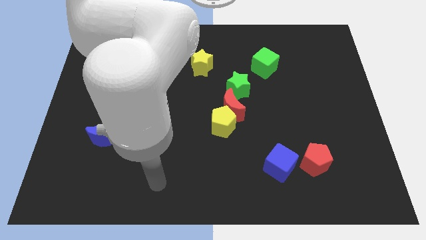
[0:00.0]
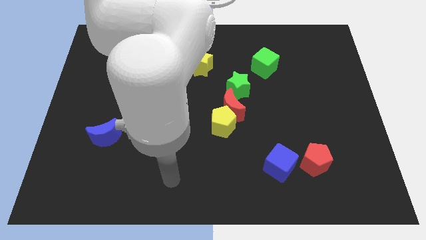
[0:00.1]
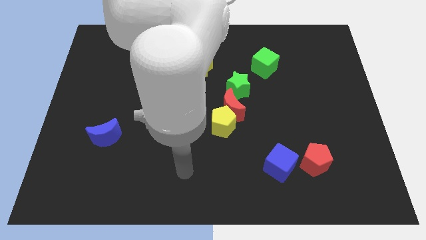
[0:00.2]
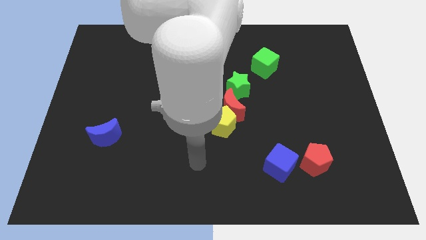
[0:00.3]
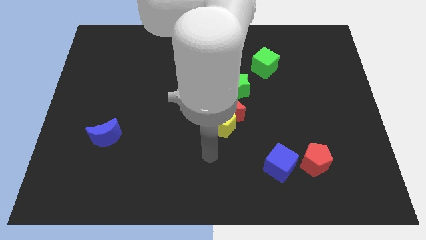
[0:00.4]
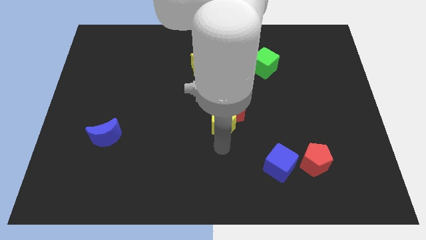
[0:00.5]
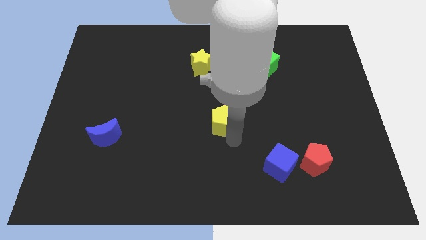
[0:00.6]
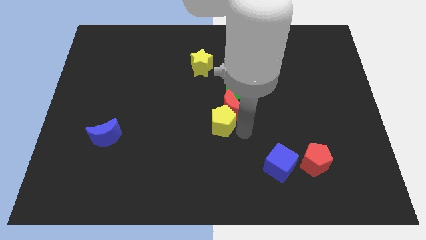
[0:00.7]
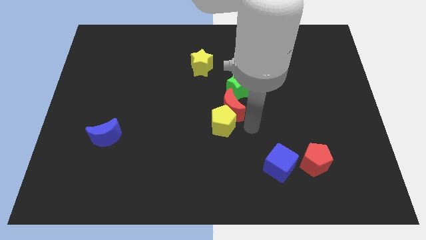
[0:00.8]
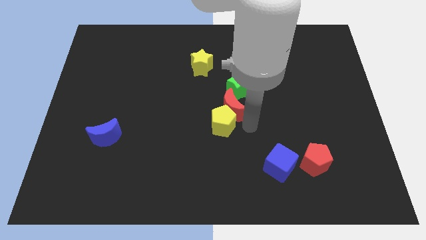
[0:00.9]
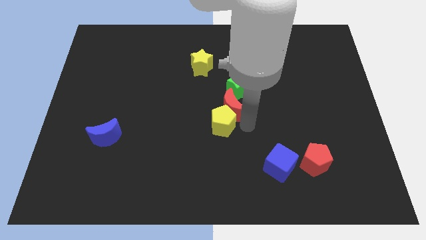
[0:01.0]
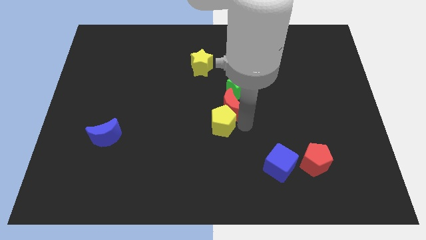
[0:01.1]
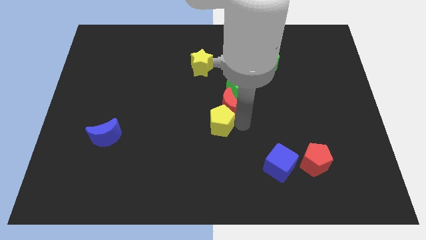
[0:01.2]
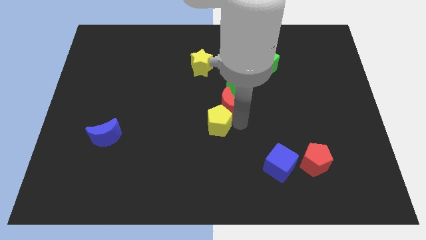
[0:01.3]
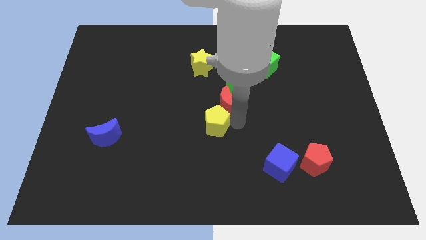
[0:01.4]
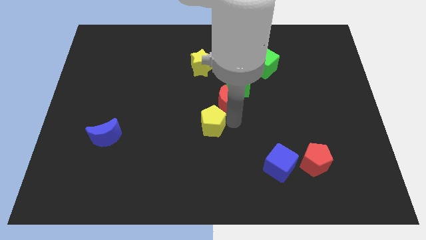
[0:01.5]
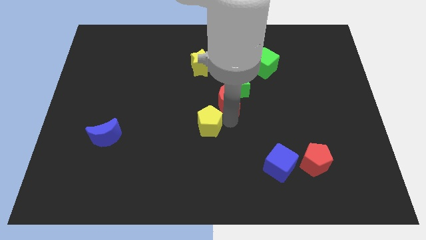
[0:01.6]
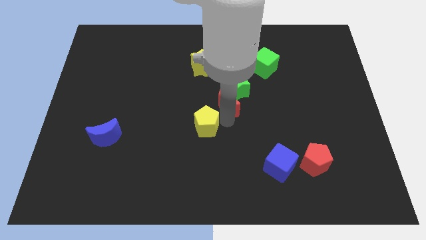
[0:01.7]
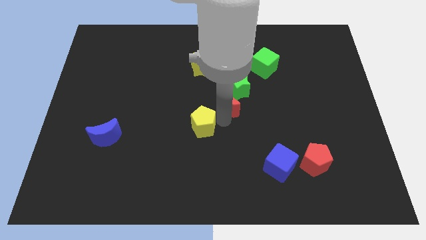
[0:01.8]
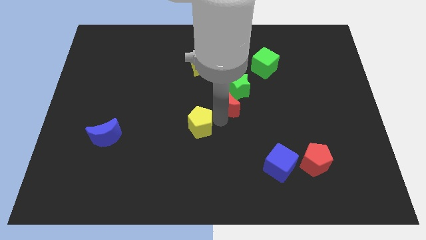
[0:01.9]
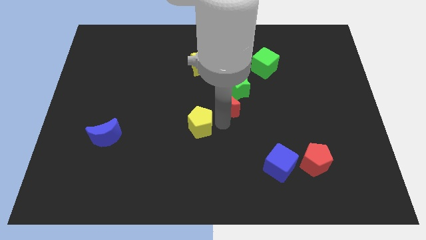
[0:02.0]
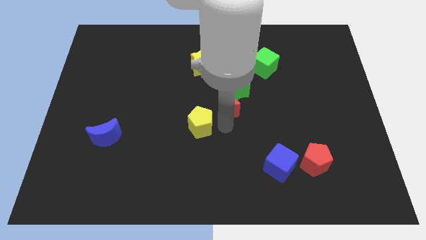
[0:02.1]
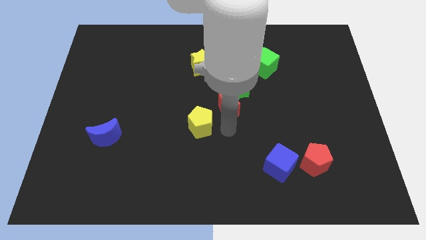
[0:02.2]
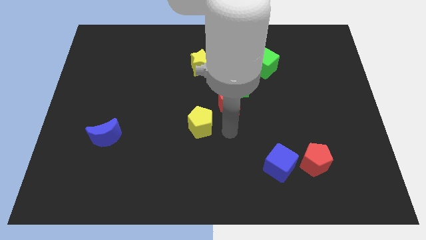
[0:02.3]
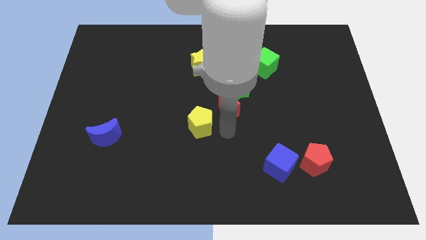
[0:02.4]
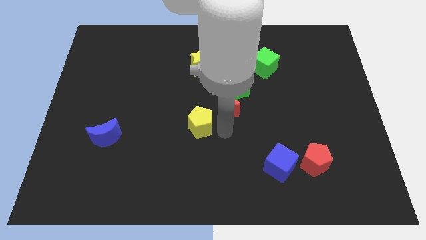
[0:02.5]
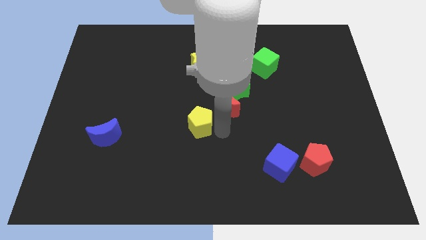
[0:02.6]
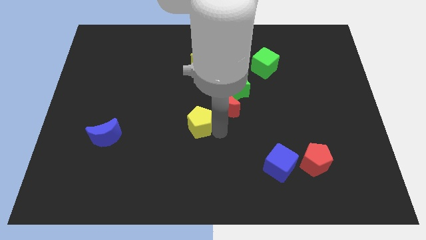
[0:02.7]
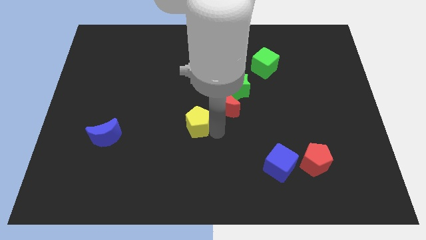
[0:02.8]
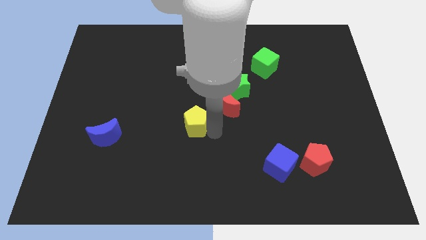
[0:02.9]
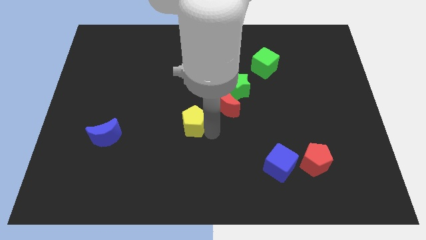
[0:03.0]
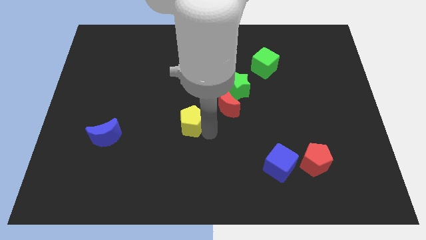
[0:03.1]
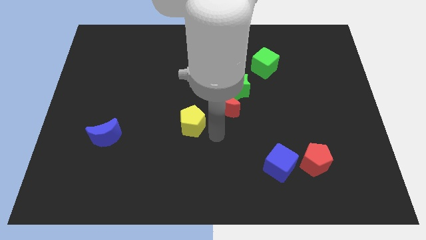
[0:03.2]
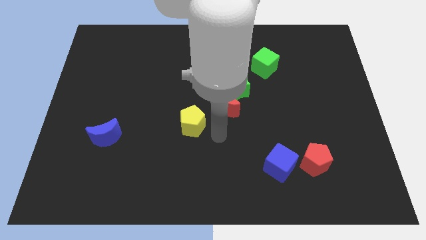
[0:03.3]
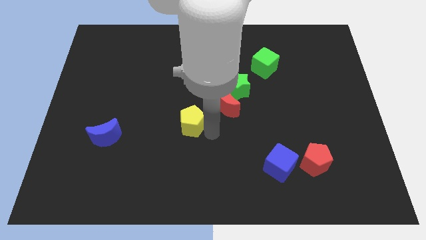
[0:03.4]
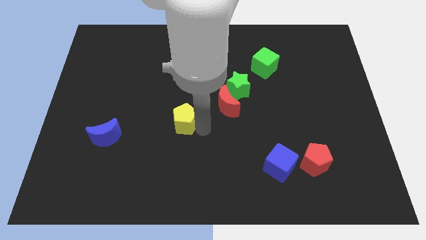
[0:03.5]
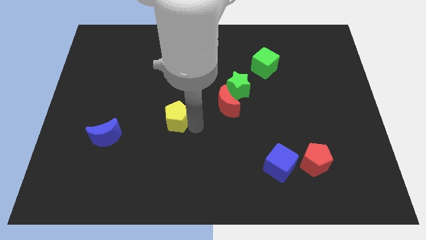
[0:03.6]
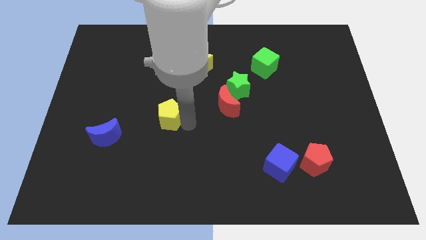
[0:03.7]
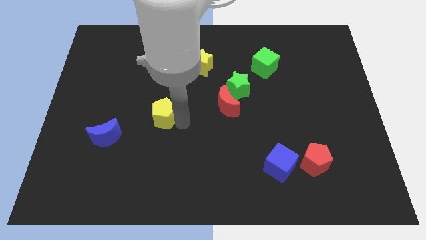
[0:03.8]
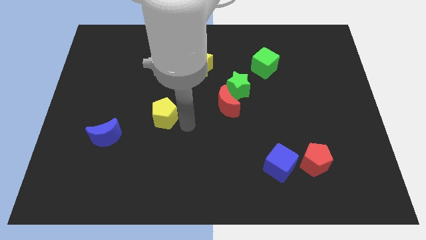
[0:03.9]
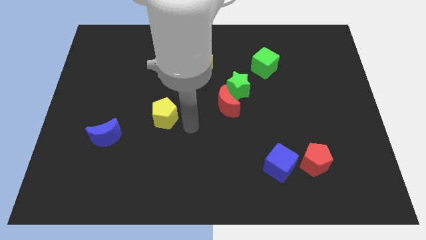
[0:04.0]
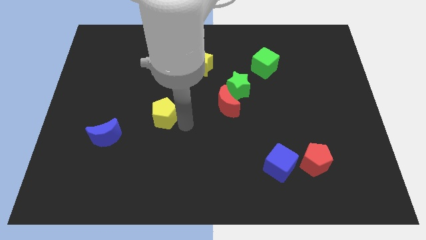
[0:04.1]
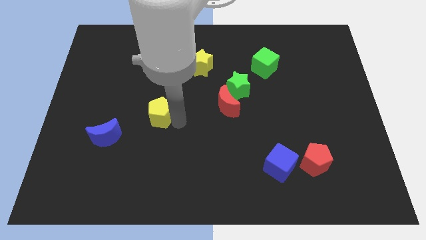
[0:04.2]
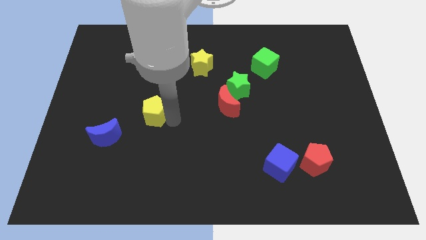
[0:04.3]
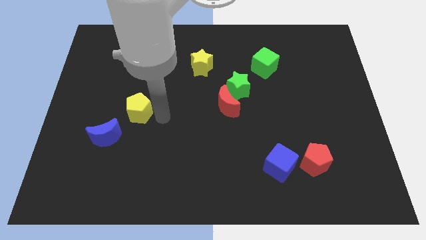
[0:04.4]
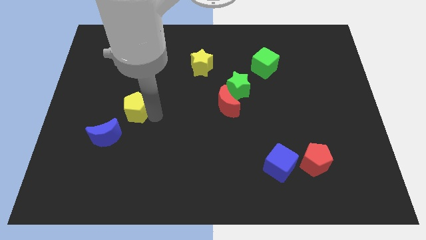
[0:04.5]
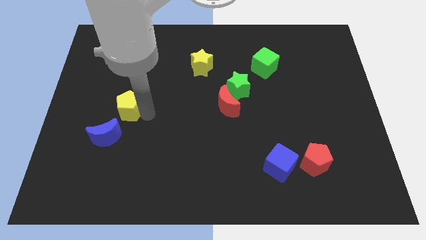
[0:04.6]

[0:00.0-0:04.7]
put the yellow pentagon above the blue moon

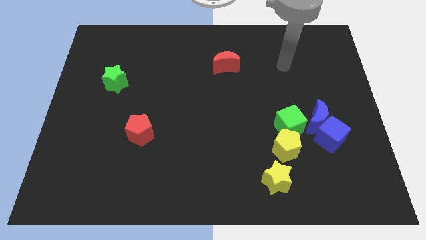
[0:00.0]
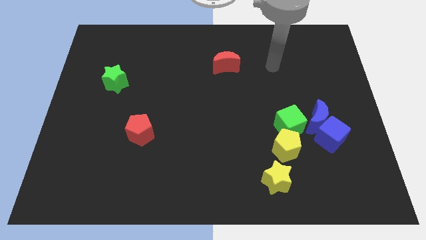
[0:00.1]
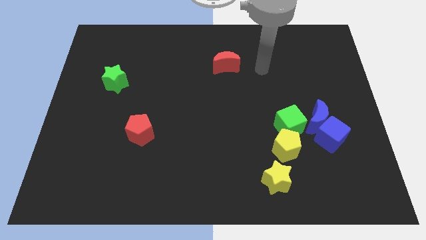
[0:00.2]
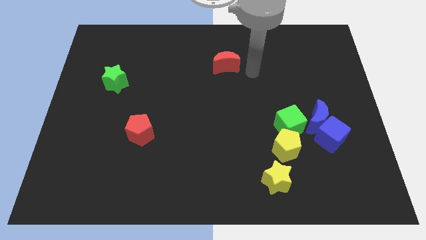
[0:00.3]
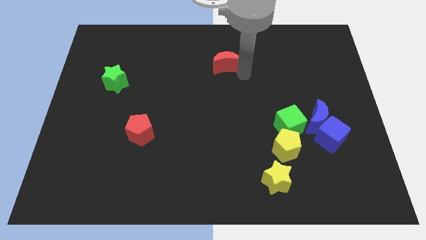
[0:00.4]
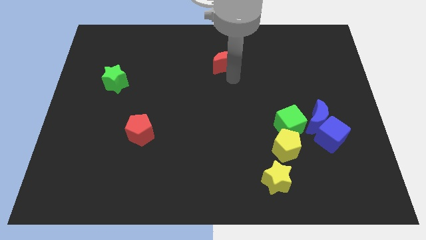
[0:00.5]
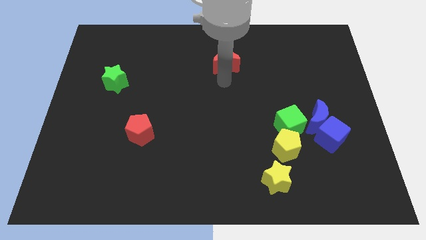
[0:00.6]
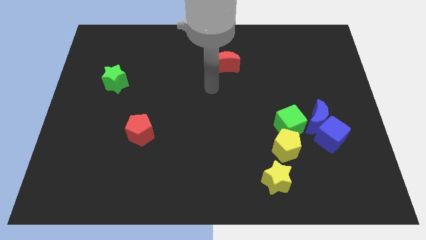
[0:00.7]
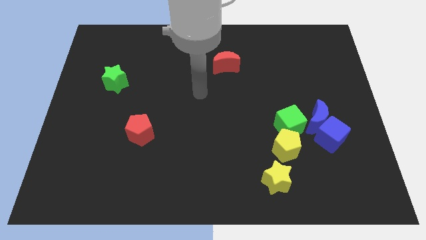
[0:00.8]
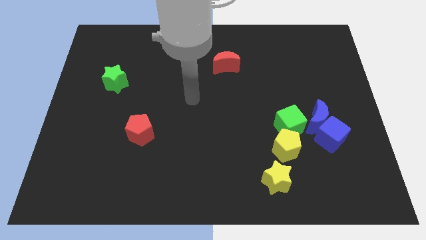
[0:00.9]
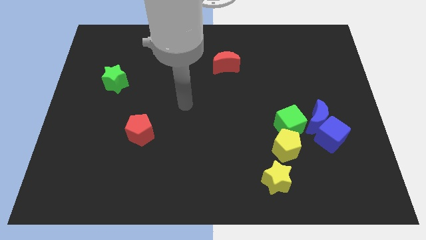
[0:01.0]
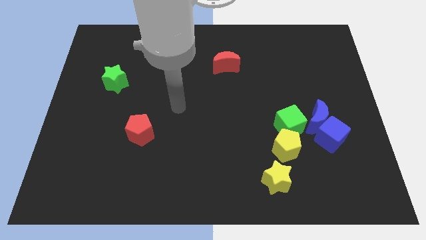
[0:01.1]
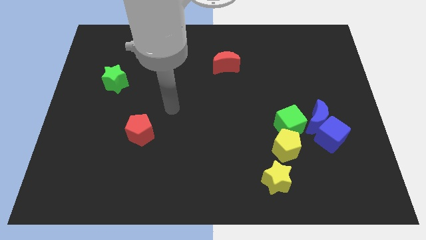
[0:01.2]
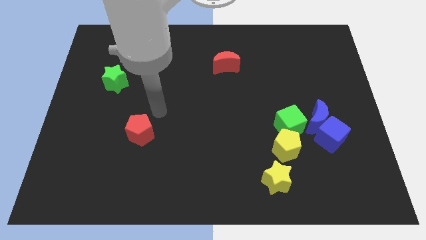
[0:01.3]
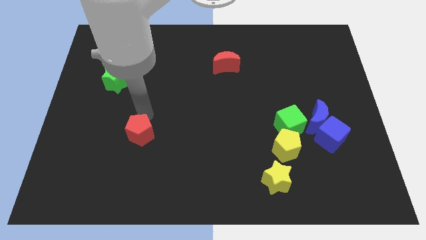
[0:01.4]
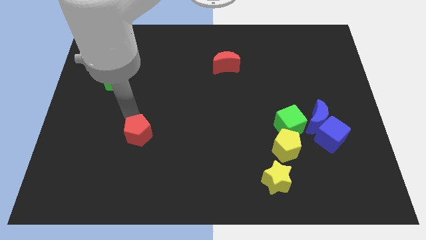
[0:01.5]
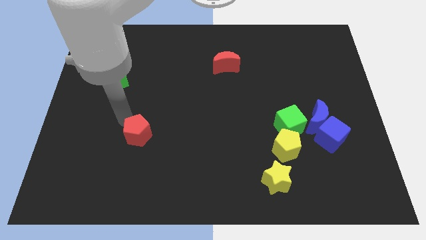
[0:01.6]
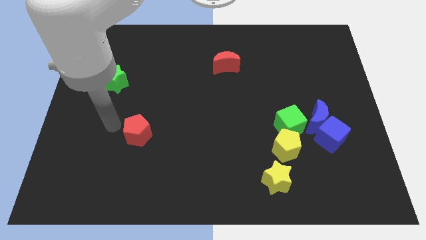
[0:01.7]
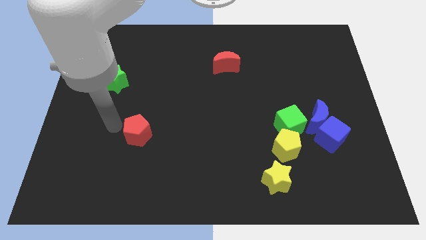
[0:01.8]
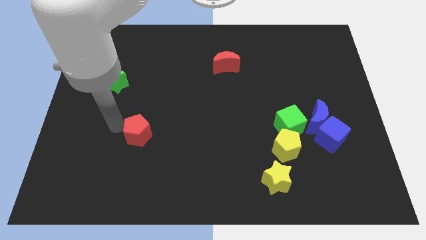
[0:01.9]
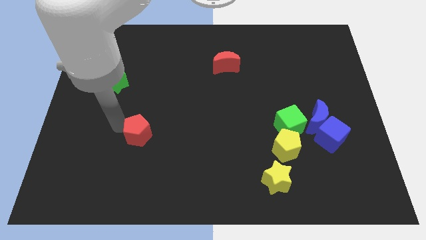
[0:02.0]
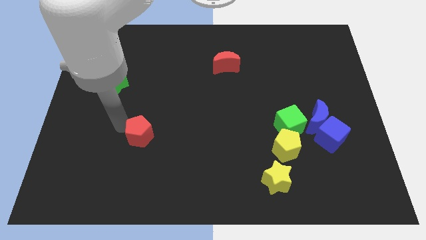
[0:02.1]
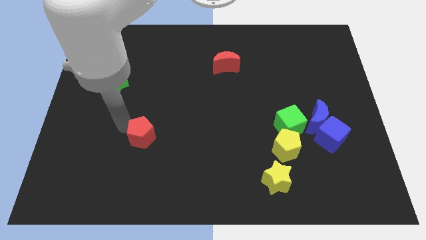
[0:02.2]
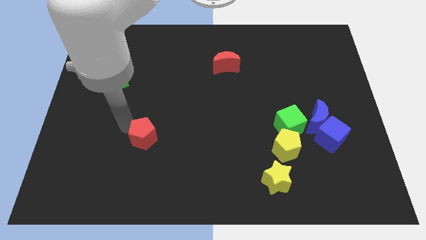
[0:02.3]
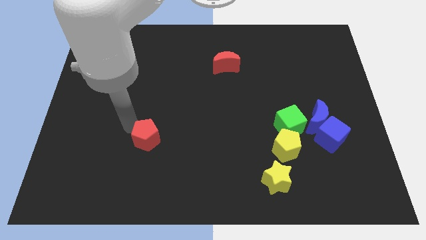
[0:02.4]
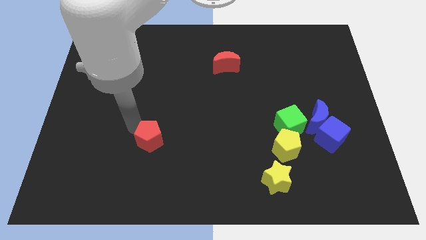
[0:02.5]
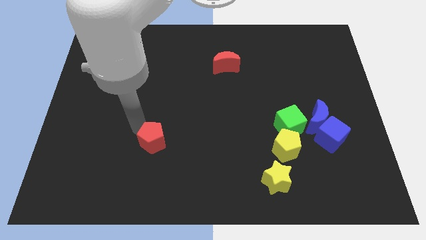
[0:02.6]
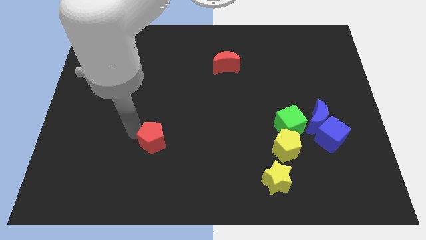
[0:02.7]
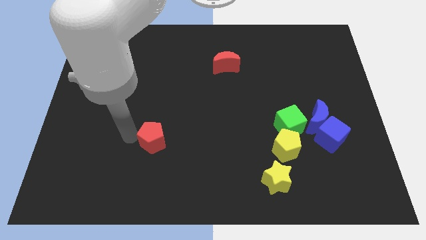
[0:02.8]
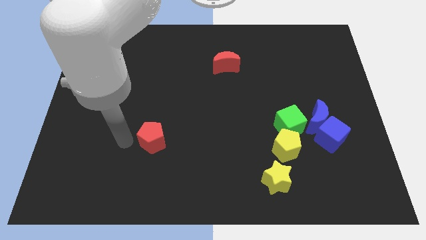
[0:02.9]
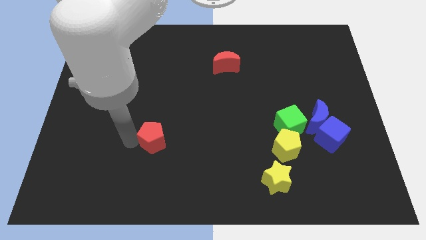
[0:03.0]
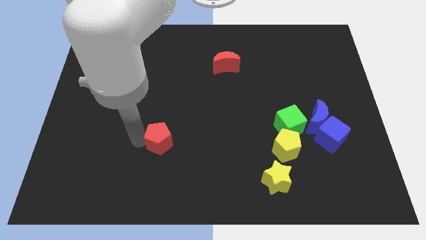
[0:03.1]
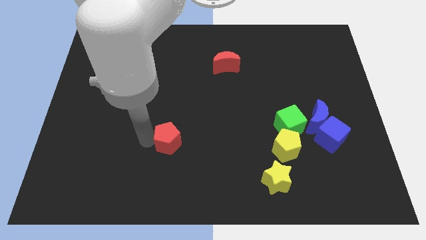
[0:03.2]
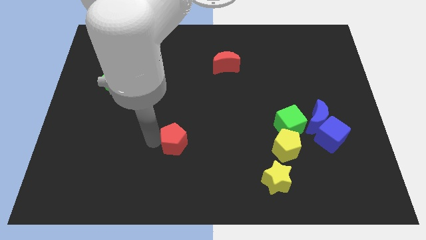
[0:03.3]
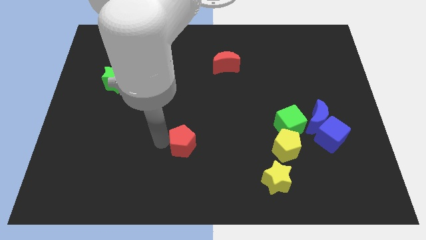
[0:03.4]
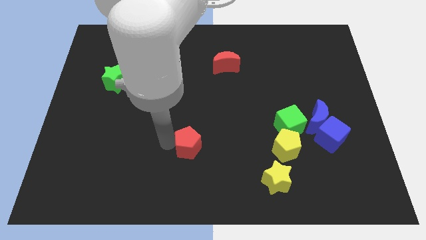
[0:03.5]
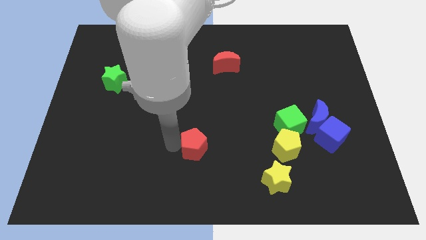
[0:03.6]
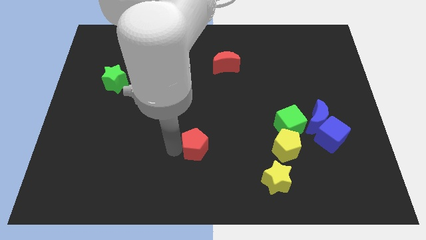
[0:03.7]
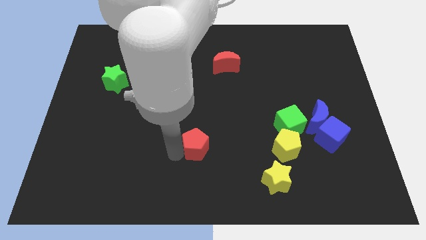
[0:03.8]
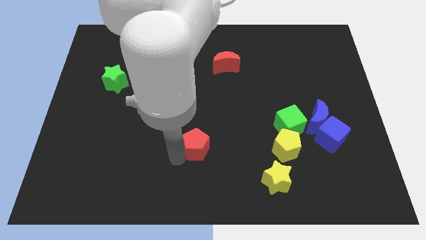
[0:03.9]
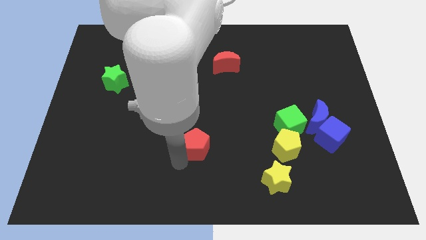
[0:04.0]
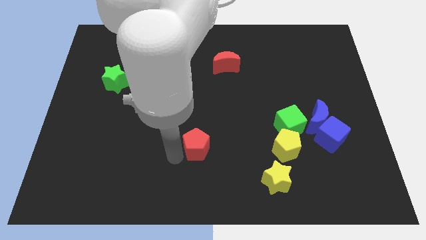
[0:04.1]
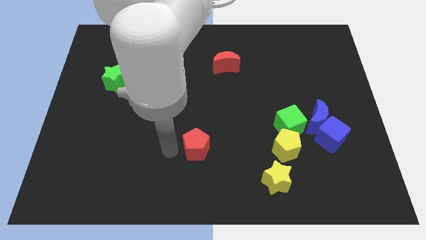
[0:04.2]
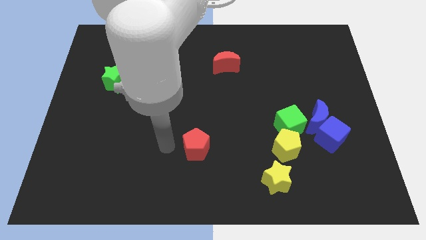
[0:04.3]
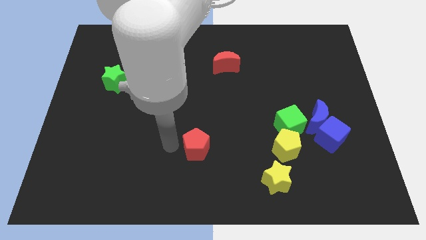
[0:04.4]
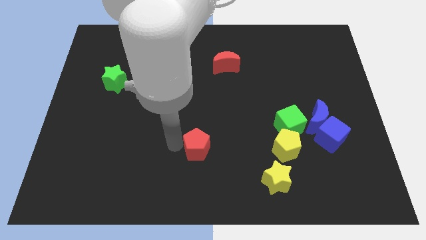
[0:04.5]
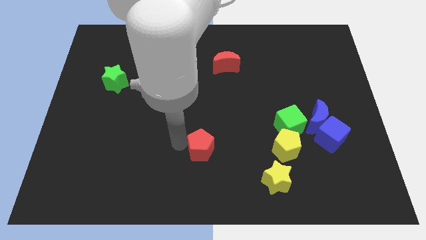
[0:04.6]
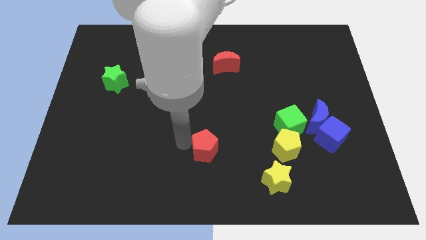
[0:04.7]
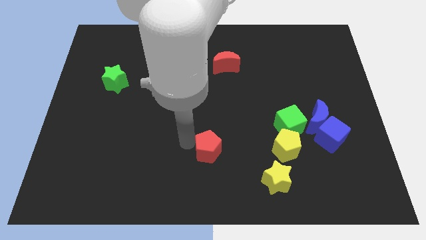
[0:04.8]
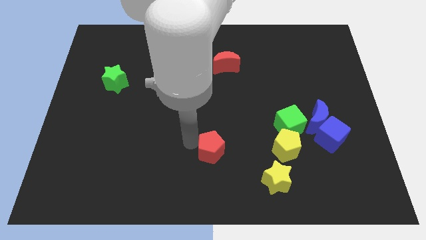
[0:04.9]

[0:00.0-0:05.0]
slide the red pentagon to the left side of the yellow pentagon
